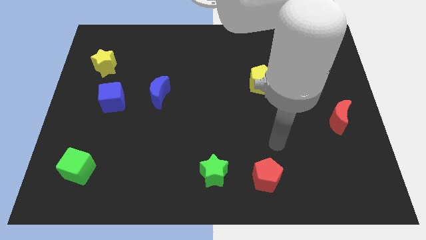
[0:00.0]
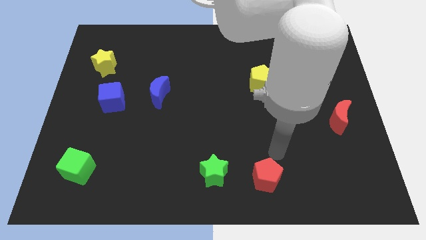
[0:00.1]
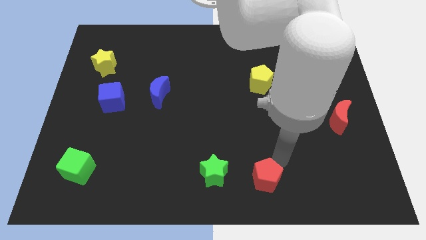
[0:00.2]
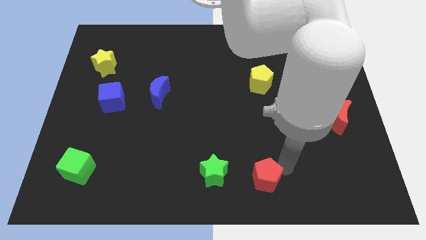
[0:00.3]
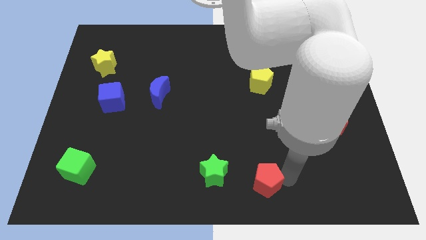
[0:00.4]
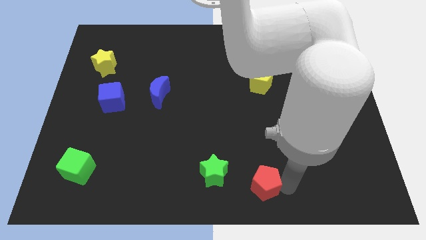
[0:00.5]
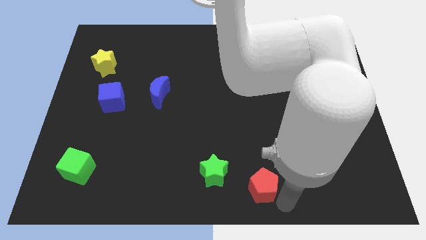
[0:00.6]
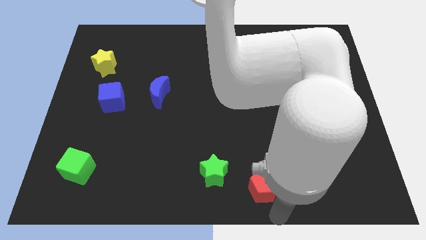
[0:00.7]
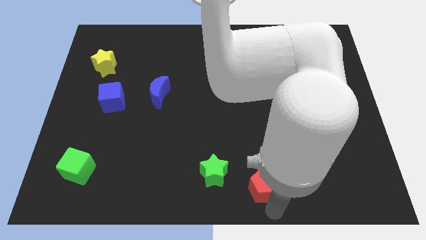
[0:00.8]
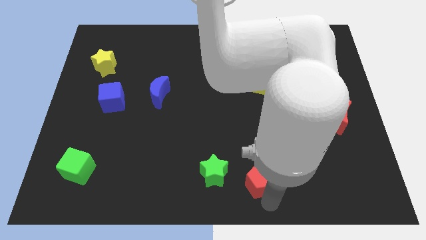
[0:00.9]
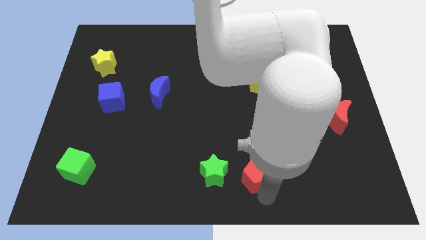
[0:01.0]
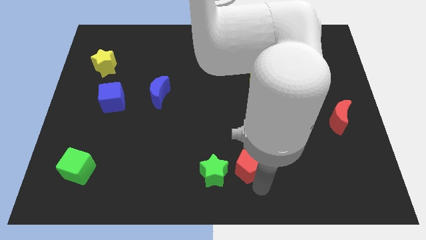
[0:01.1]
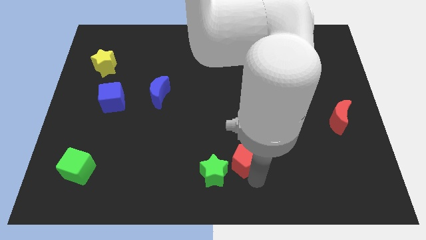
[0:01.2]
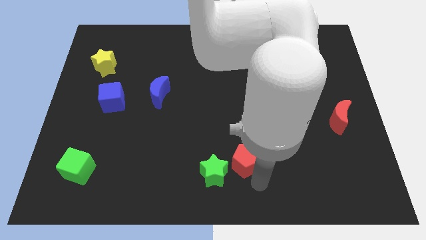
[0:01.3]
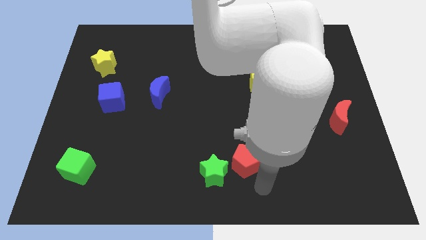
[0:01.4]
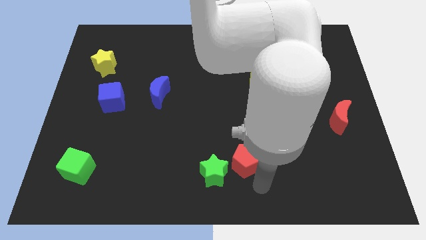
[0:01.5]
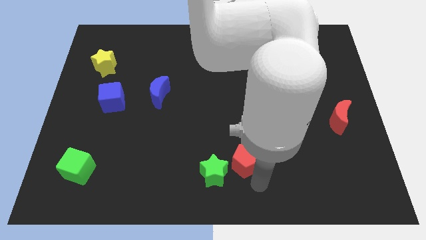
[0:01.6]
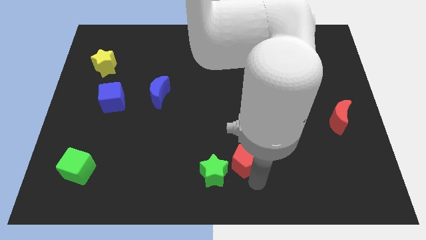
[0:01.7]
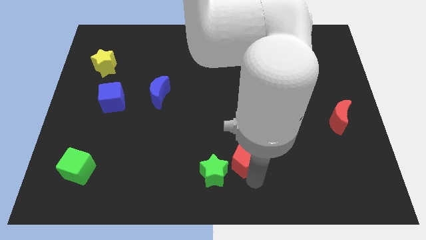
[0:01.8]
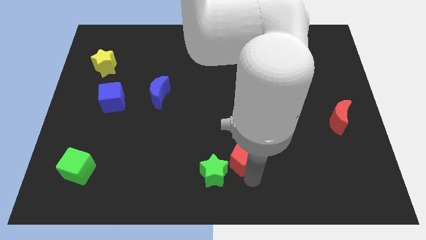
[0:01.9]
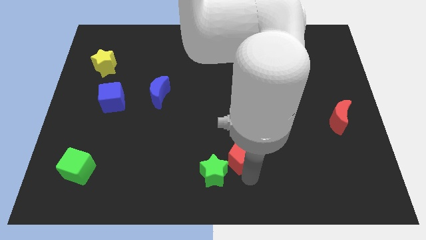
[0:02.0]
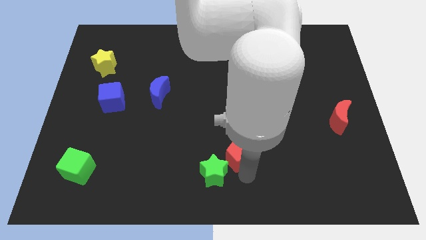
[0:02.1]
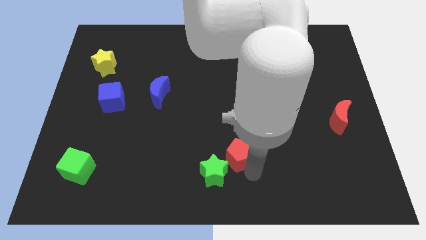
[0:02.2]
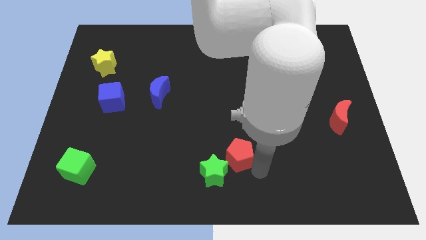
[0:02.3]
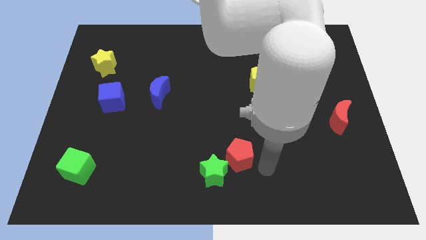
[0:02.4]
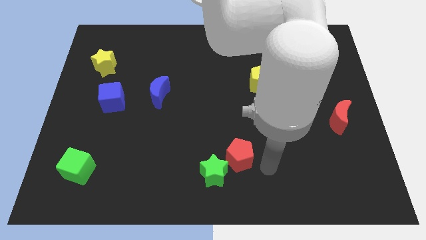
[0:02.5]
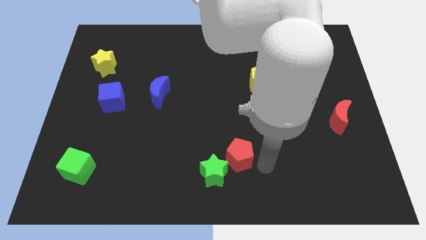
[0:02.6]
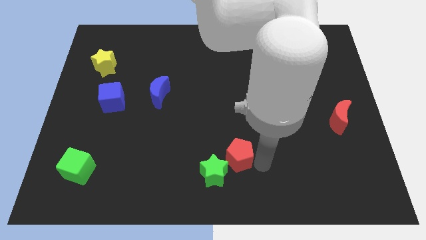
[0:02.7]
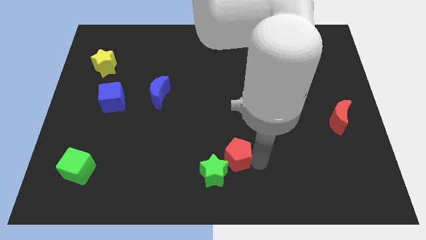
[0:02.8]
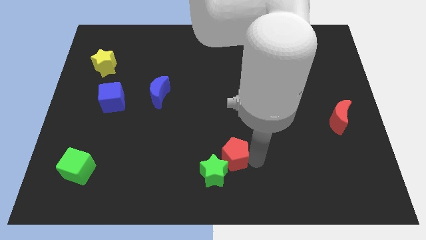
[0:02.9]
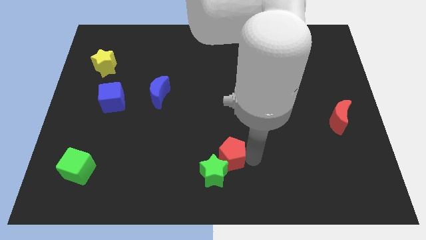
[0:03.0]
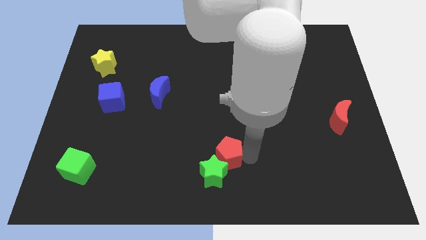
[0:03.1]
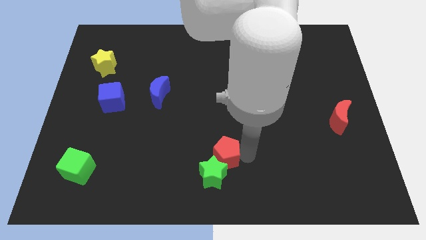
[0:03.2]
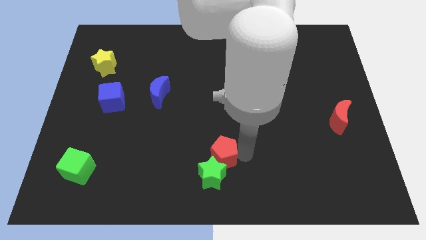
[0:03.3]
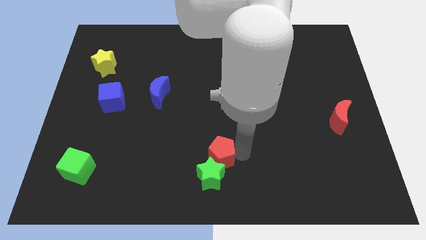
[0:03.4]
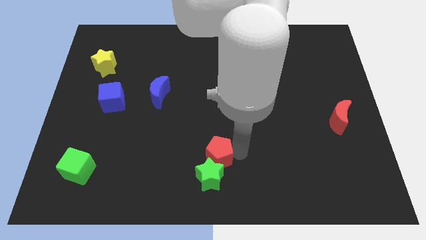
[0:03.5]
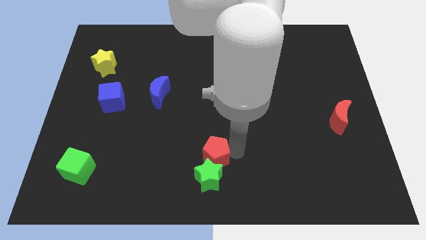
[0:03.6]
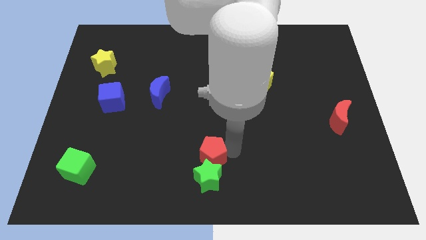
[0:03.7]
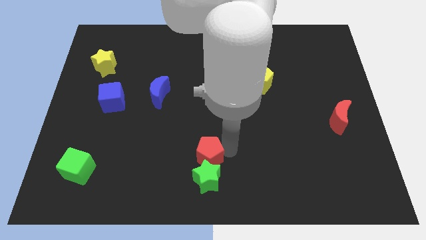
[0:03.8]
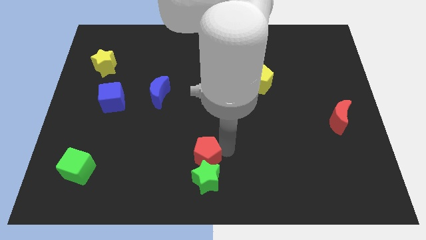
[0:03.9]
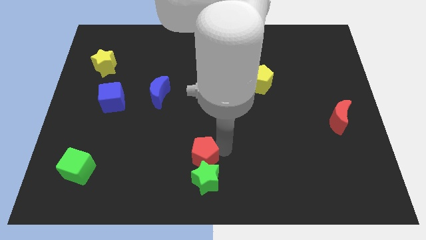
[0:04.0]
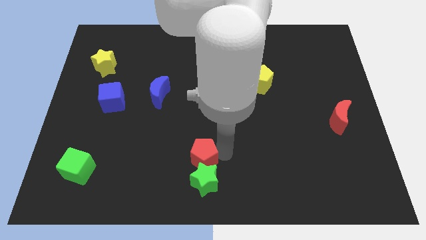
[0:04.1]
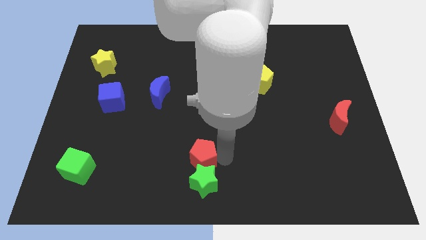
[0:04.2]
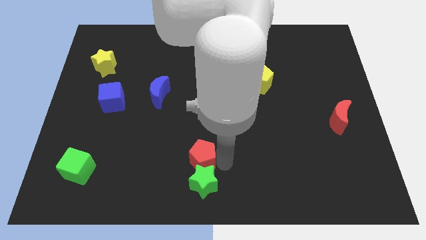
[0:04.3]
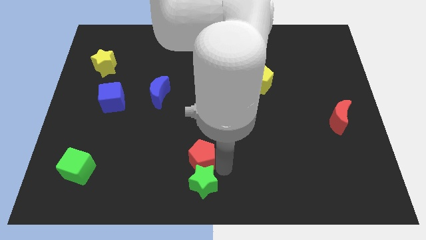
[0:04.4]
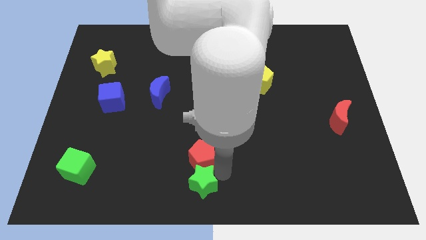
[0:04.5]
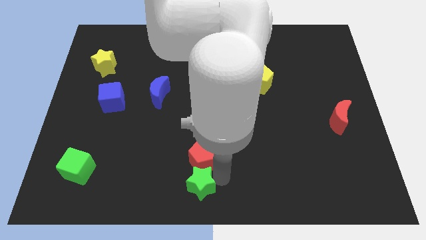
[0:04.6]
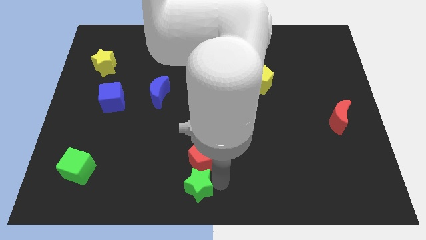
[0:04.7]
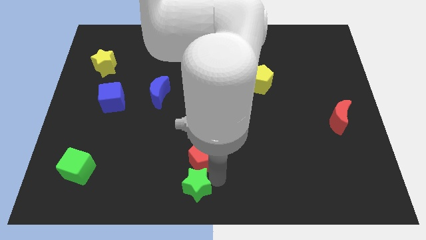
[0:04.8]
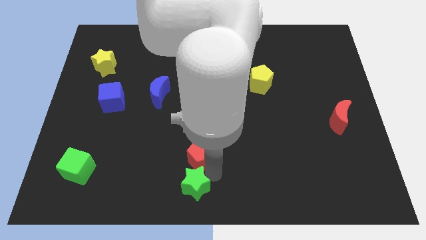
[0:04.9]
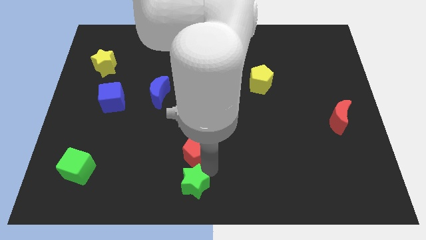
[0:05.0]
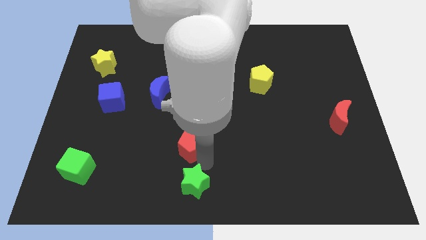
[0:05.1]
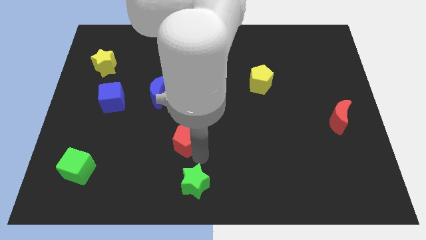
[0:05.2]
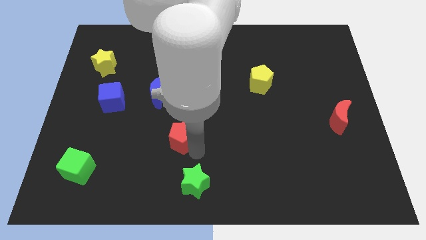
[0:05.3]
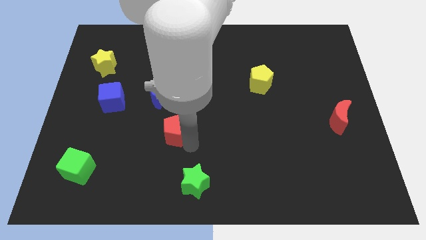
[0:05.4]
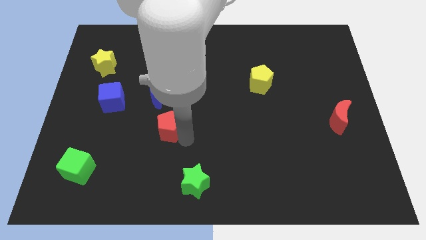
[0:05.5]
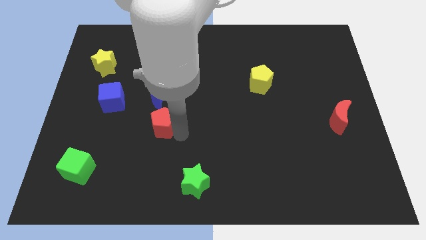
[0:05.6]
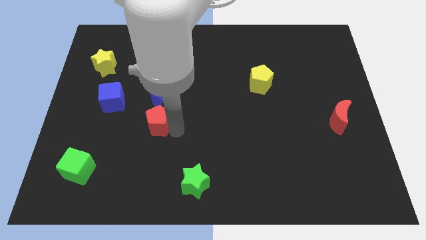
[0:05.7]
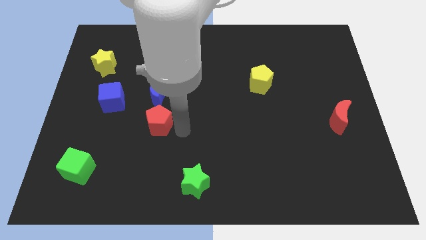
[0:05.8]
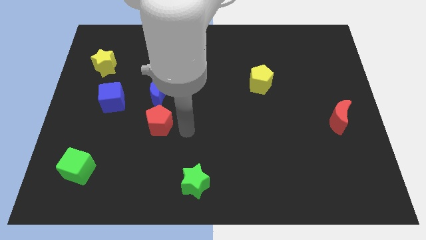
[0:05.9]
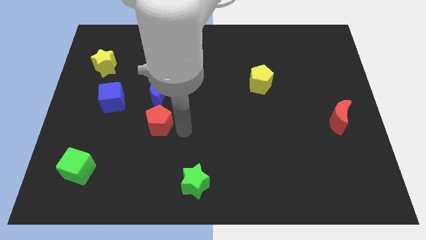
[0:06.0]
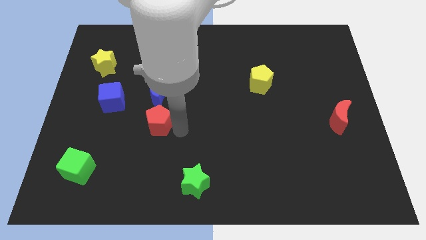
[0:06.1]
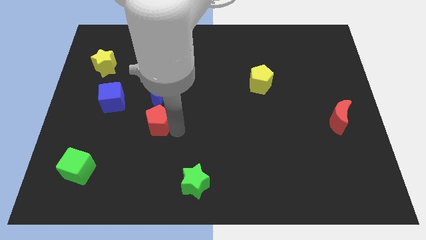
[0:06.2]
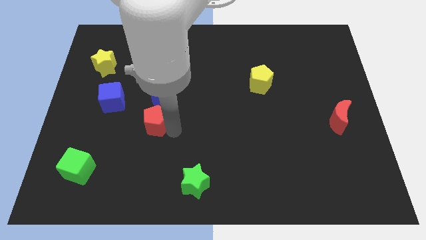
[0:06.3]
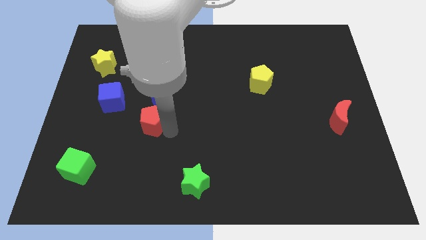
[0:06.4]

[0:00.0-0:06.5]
put the red pentagon diagonally down and to the right of the blue cube

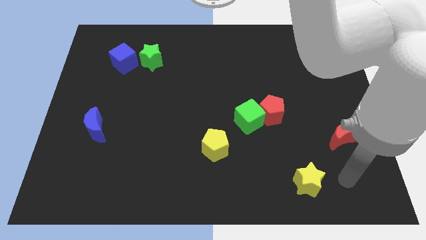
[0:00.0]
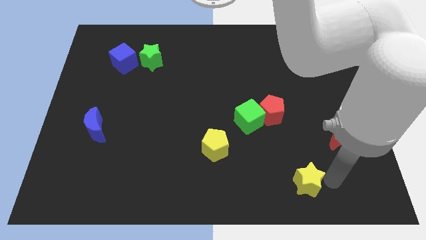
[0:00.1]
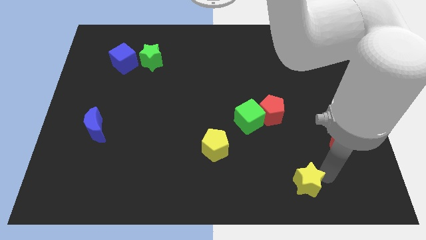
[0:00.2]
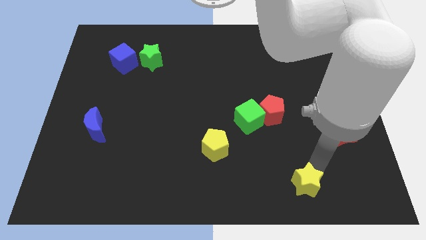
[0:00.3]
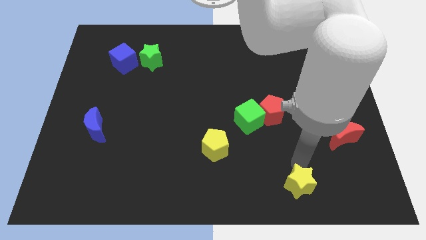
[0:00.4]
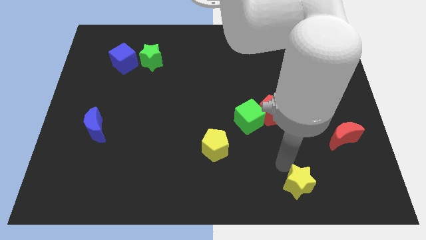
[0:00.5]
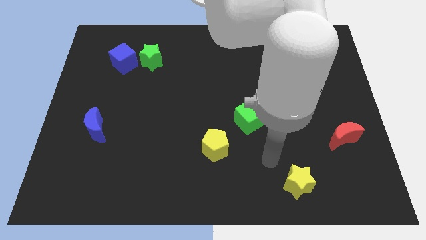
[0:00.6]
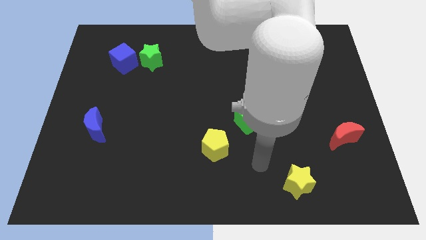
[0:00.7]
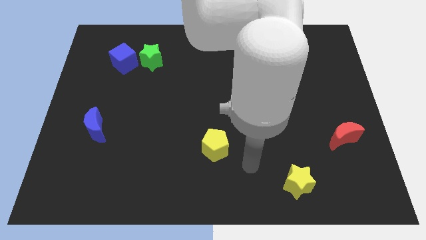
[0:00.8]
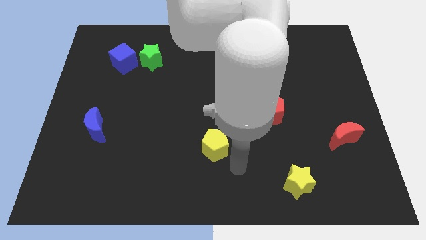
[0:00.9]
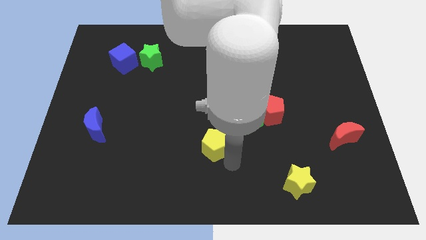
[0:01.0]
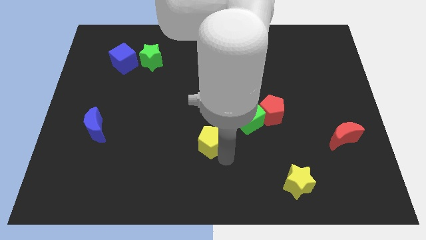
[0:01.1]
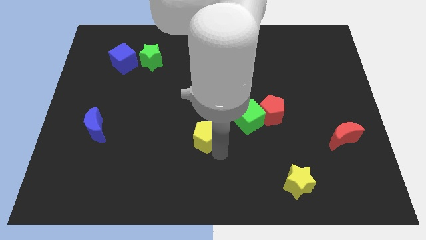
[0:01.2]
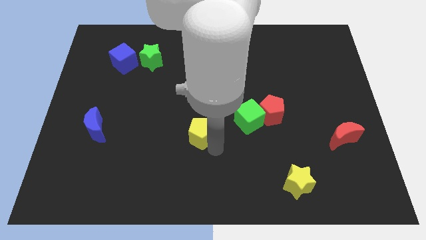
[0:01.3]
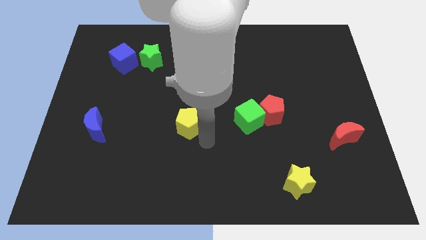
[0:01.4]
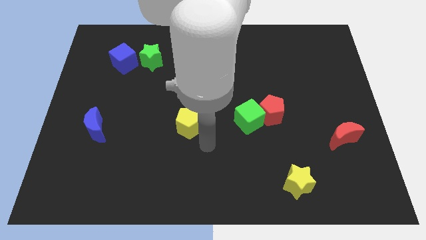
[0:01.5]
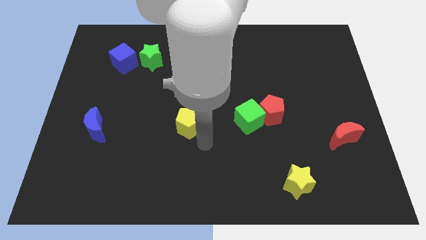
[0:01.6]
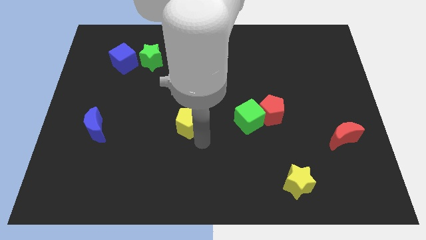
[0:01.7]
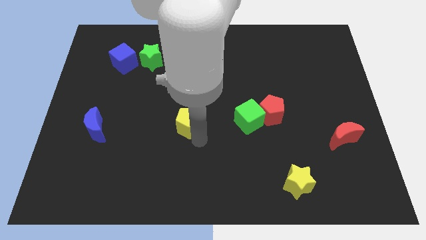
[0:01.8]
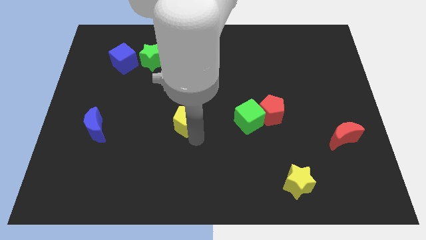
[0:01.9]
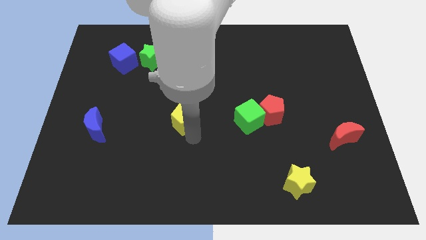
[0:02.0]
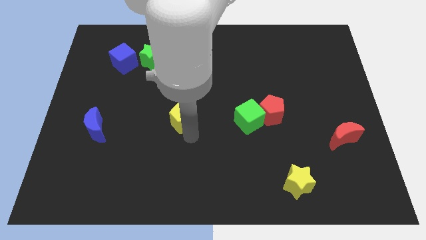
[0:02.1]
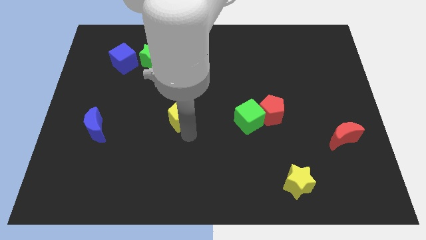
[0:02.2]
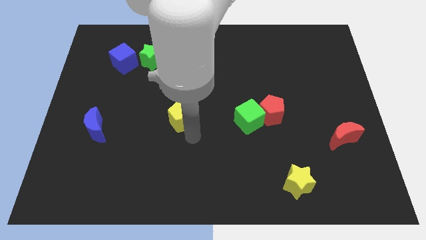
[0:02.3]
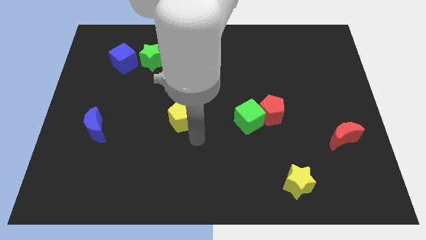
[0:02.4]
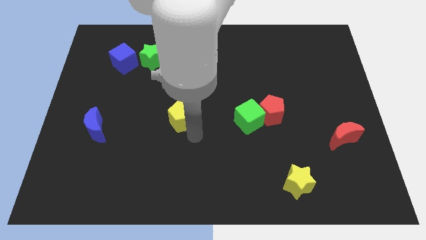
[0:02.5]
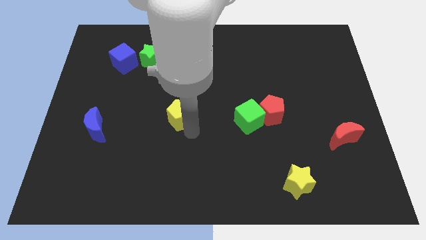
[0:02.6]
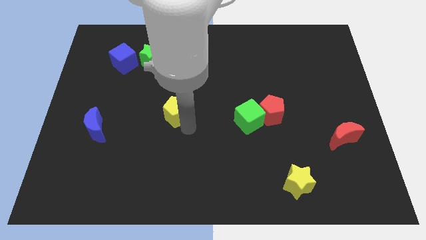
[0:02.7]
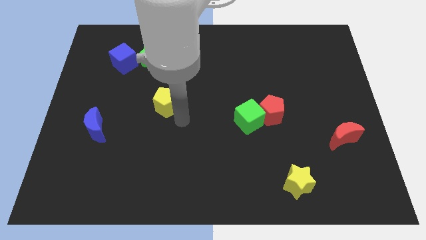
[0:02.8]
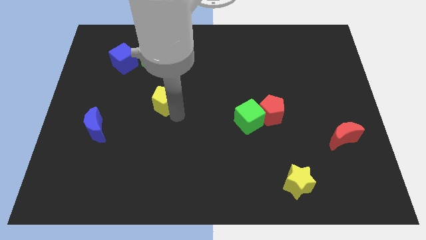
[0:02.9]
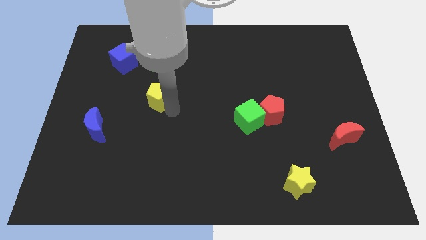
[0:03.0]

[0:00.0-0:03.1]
put the yellow pentagon to the bottom side of the green star
